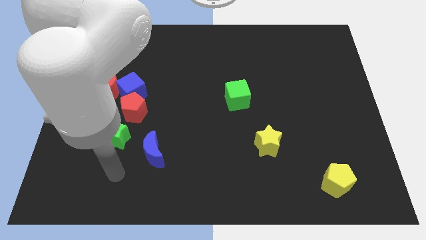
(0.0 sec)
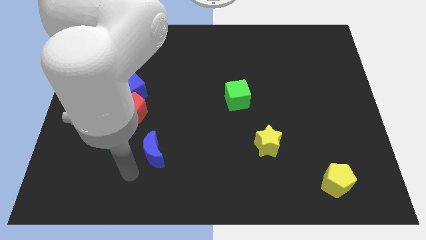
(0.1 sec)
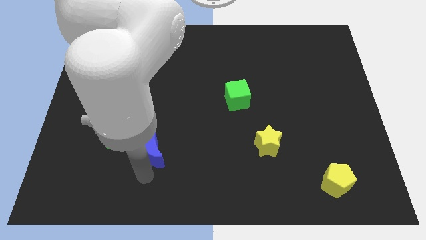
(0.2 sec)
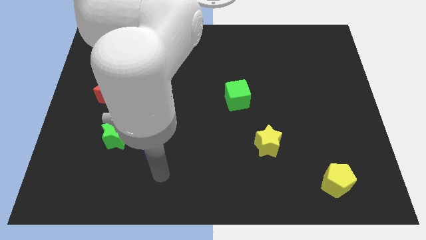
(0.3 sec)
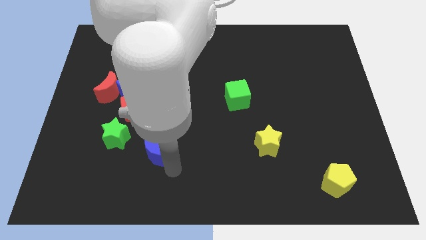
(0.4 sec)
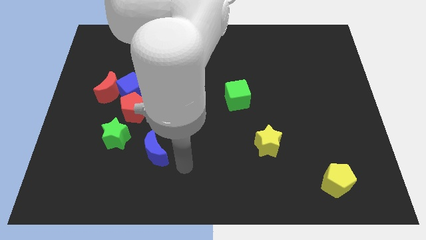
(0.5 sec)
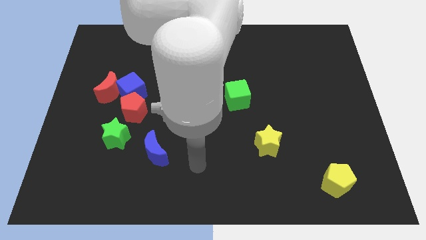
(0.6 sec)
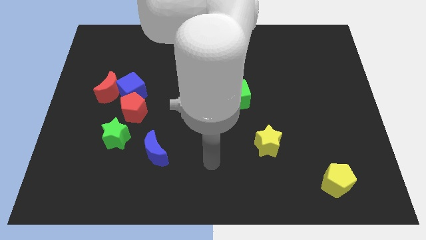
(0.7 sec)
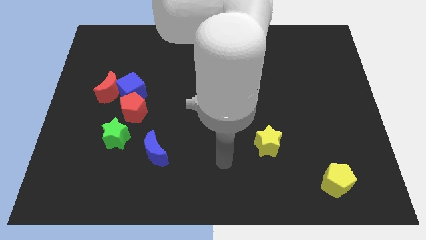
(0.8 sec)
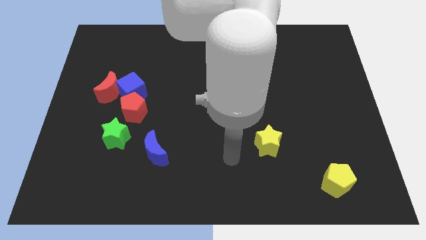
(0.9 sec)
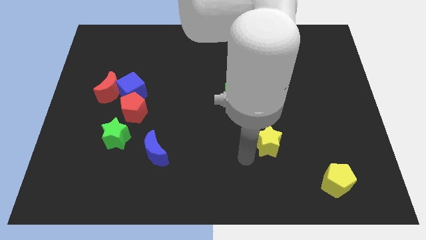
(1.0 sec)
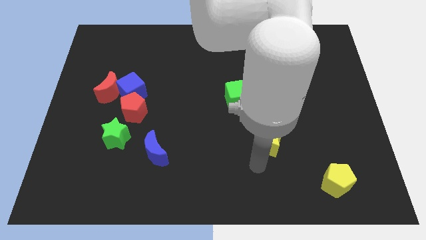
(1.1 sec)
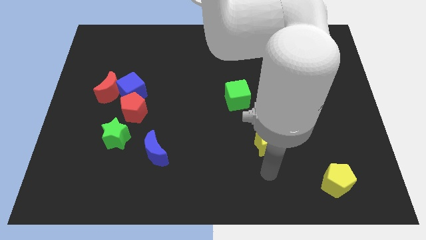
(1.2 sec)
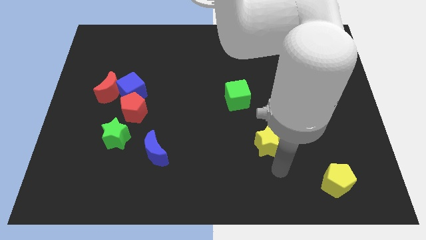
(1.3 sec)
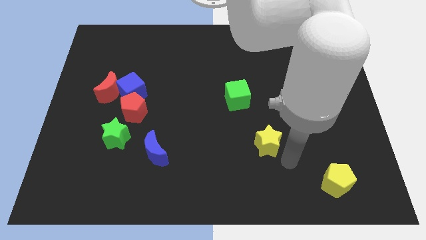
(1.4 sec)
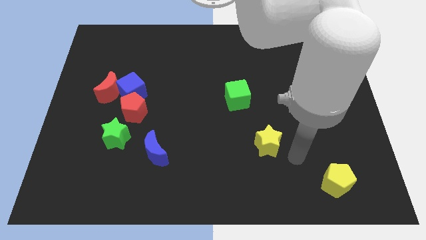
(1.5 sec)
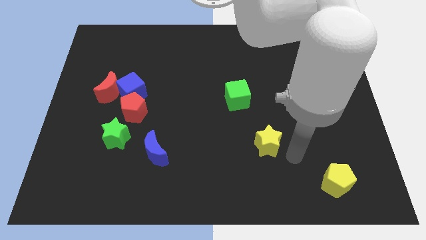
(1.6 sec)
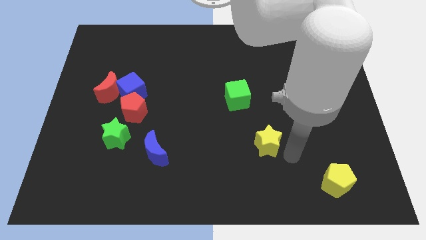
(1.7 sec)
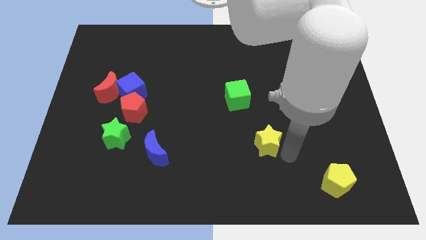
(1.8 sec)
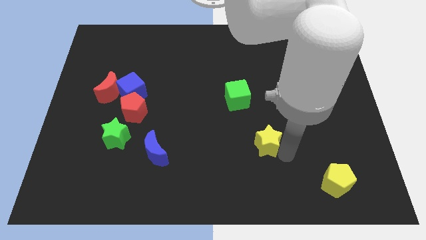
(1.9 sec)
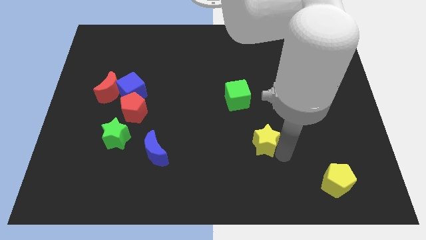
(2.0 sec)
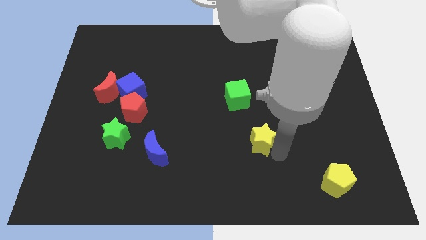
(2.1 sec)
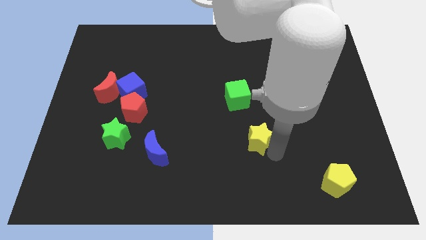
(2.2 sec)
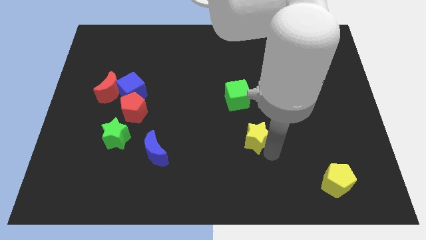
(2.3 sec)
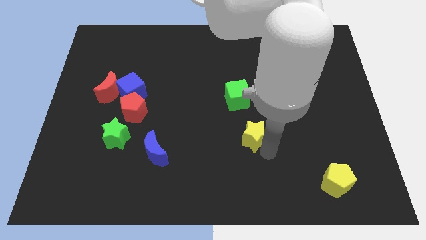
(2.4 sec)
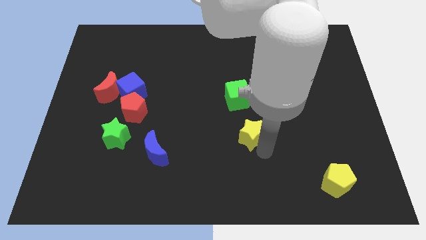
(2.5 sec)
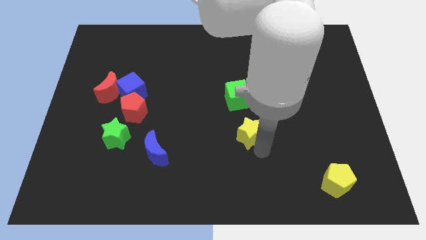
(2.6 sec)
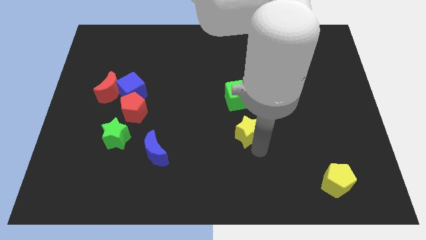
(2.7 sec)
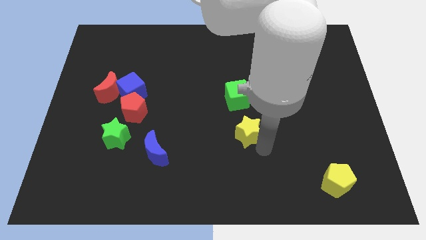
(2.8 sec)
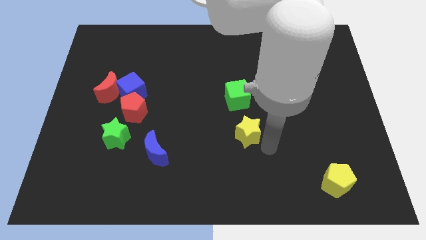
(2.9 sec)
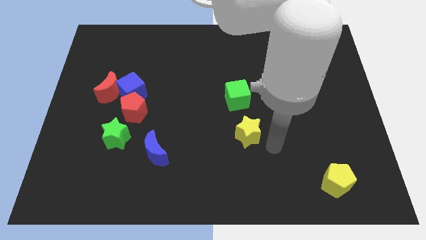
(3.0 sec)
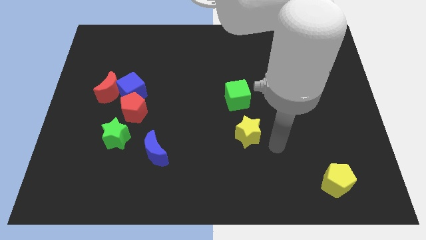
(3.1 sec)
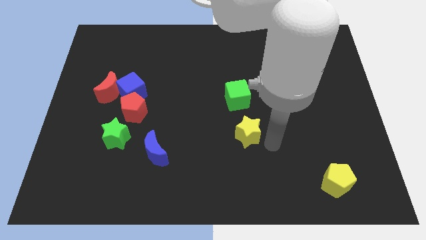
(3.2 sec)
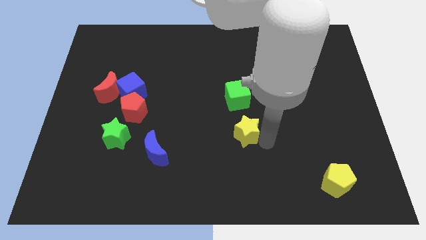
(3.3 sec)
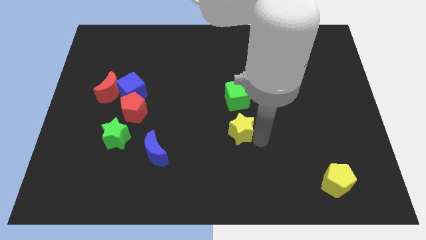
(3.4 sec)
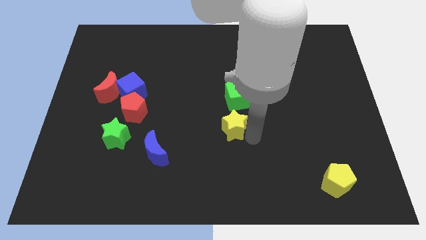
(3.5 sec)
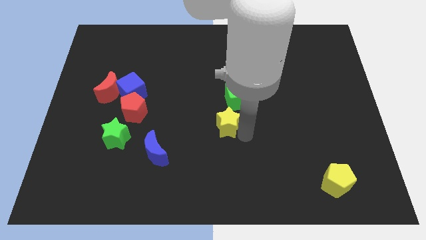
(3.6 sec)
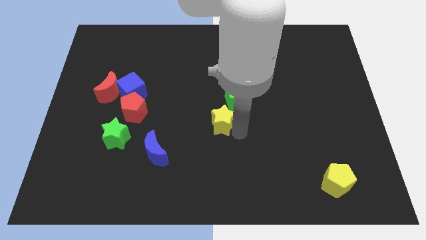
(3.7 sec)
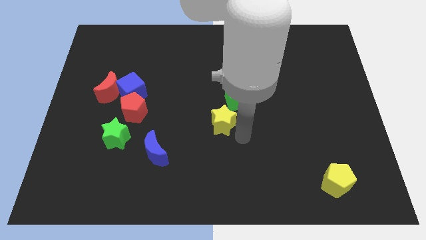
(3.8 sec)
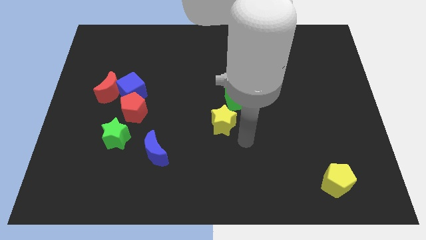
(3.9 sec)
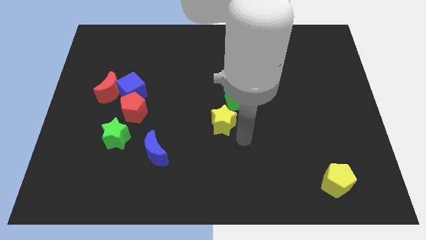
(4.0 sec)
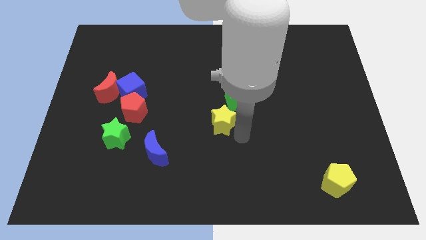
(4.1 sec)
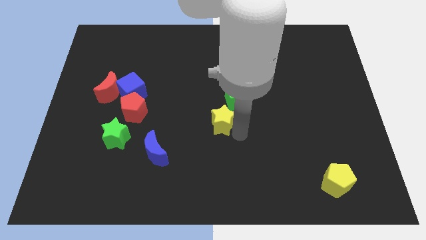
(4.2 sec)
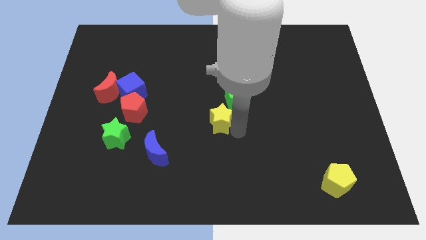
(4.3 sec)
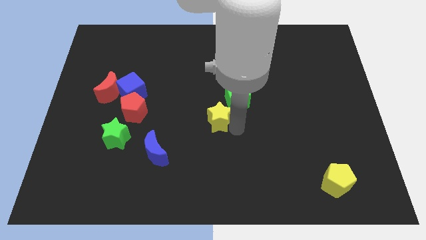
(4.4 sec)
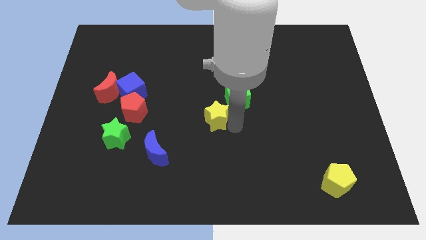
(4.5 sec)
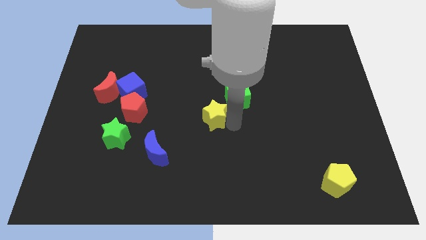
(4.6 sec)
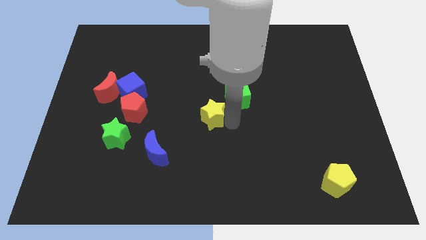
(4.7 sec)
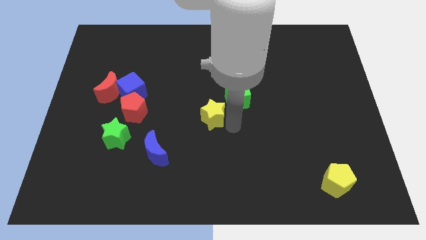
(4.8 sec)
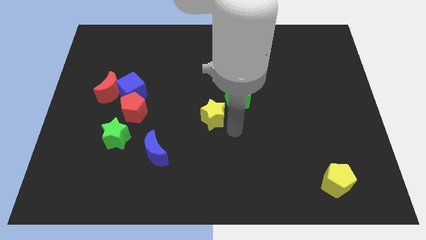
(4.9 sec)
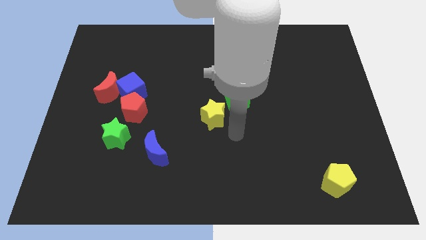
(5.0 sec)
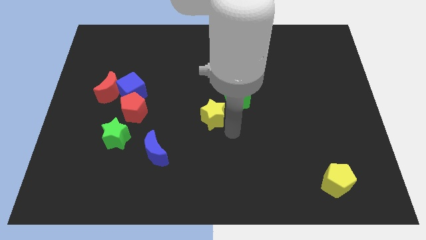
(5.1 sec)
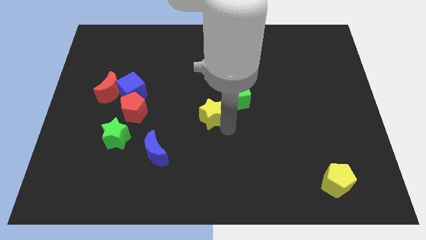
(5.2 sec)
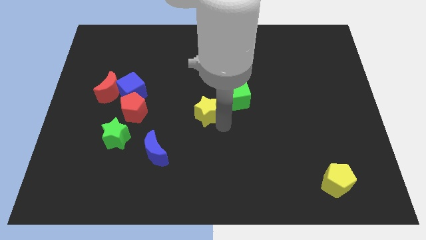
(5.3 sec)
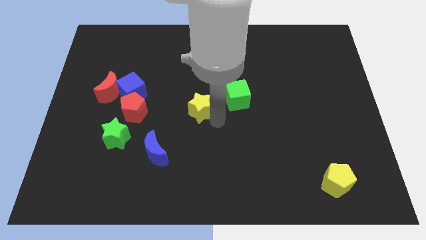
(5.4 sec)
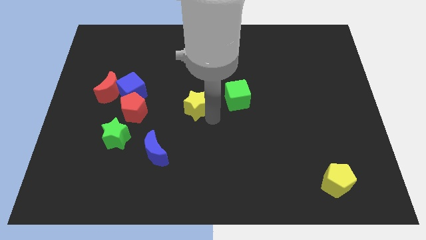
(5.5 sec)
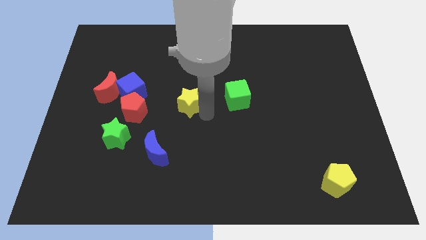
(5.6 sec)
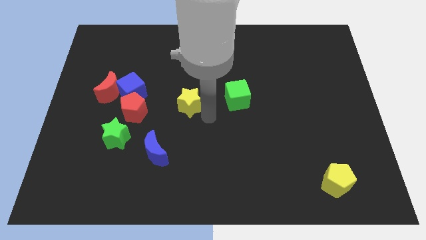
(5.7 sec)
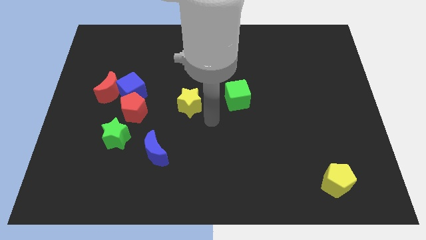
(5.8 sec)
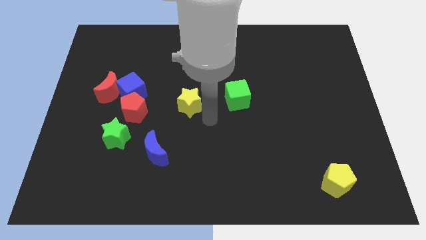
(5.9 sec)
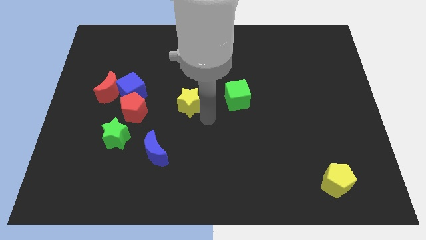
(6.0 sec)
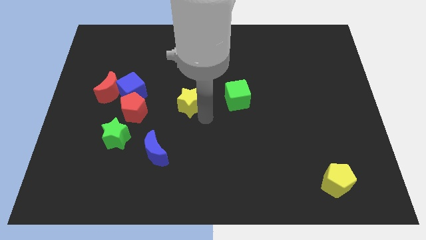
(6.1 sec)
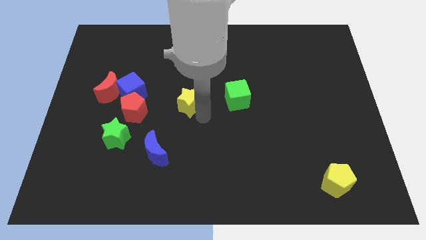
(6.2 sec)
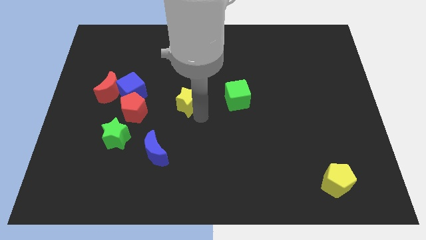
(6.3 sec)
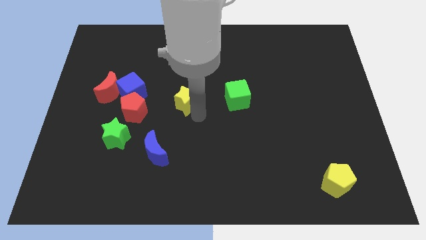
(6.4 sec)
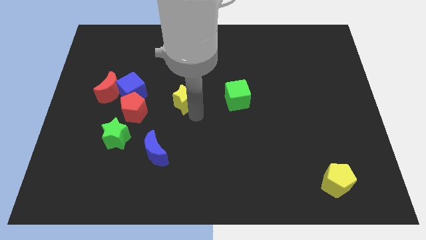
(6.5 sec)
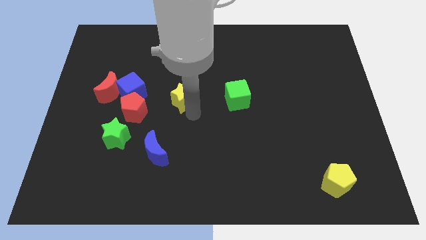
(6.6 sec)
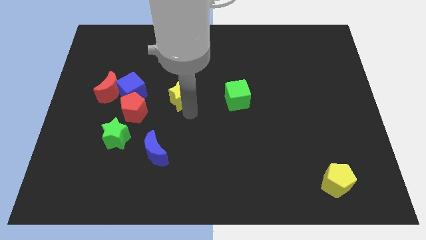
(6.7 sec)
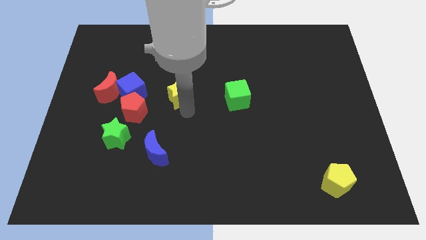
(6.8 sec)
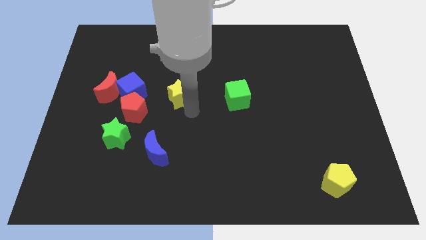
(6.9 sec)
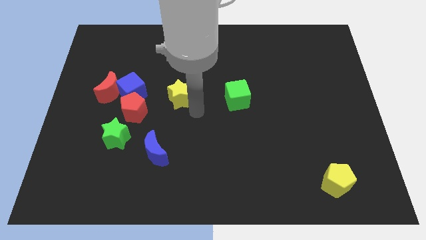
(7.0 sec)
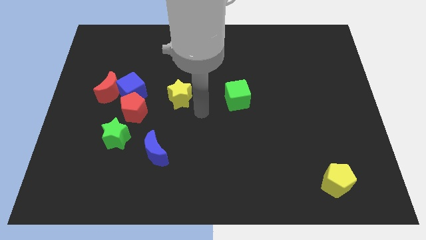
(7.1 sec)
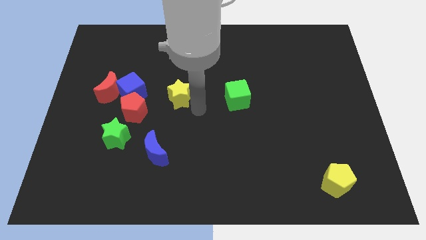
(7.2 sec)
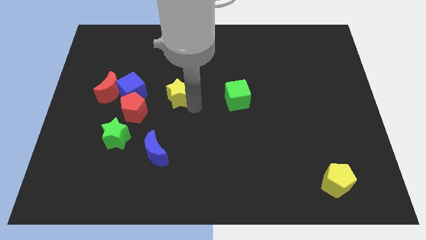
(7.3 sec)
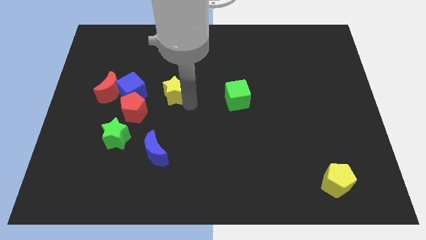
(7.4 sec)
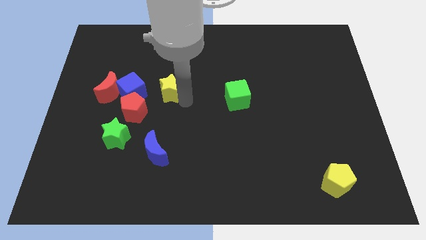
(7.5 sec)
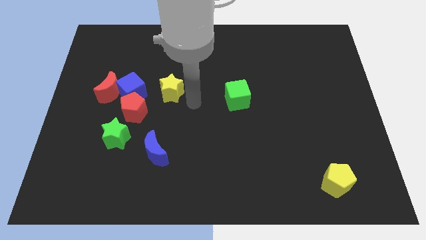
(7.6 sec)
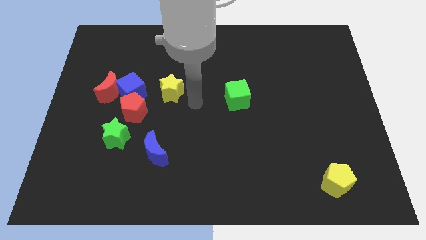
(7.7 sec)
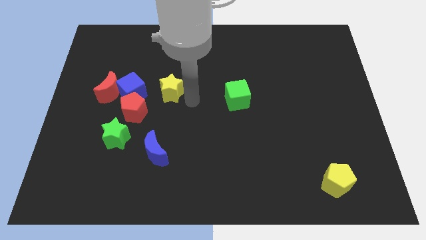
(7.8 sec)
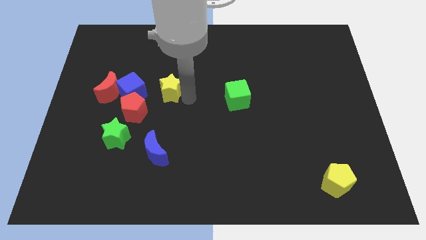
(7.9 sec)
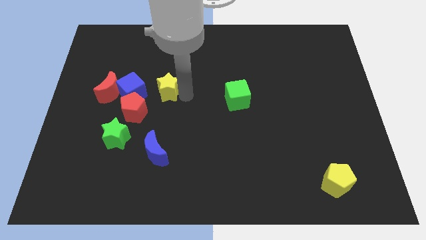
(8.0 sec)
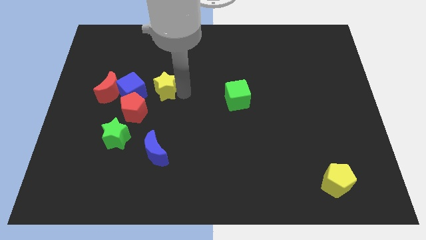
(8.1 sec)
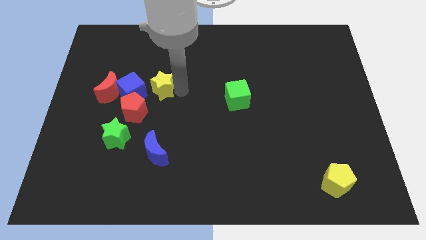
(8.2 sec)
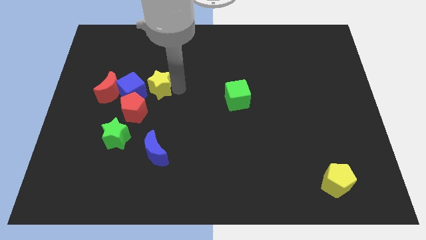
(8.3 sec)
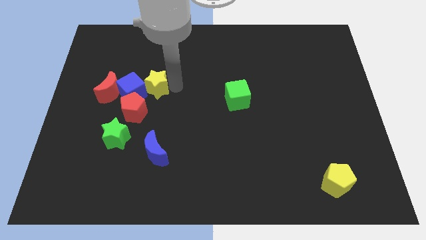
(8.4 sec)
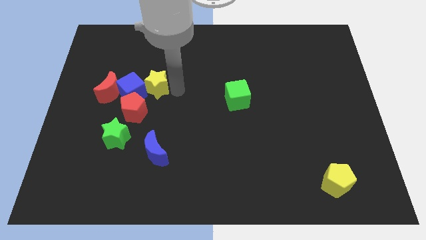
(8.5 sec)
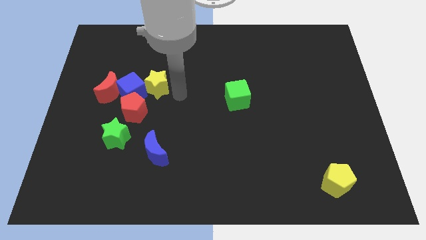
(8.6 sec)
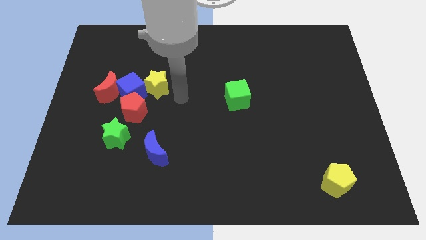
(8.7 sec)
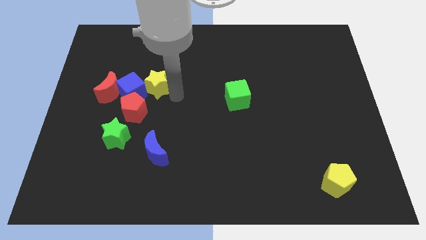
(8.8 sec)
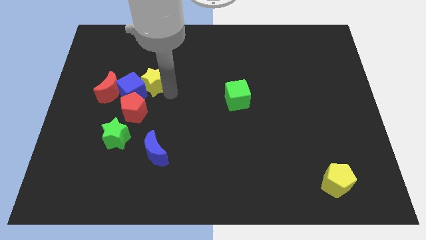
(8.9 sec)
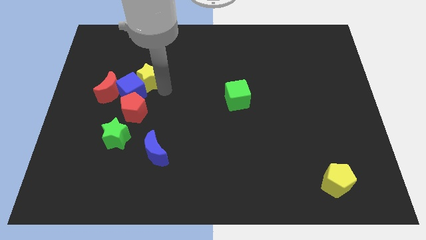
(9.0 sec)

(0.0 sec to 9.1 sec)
slide the yellow star diagonally up and to the right of the red moon
